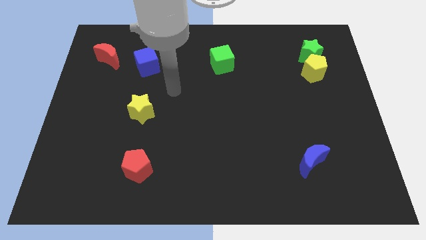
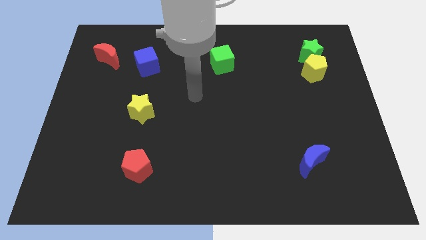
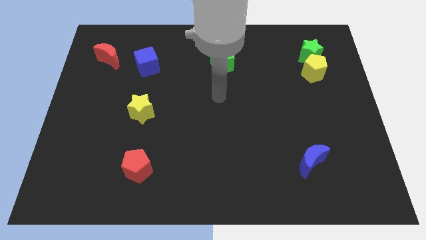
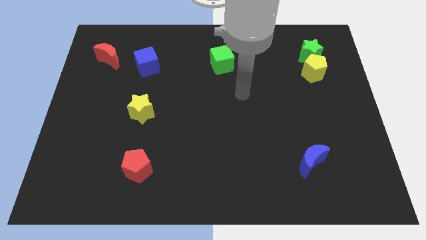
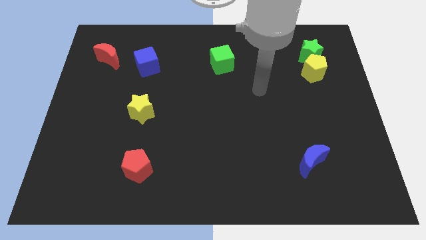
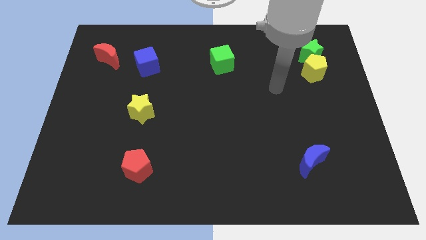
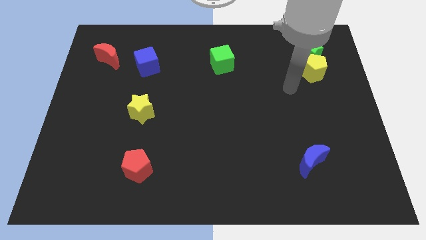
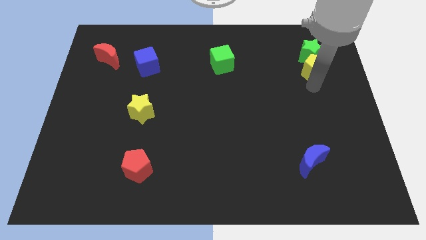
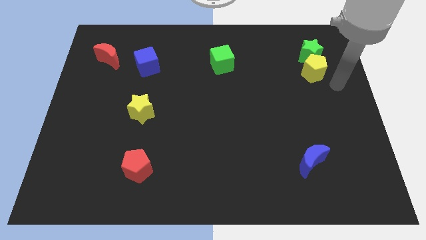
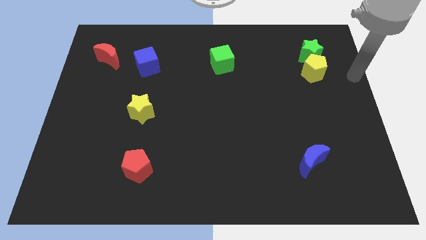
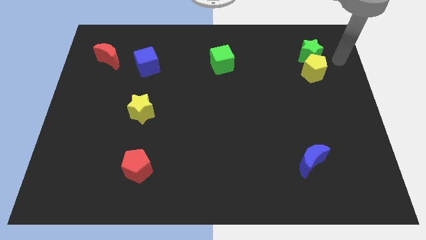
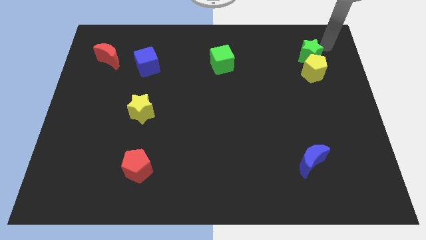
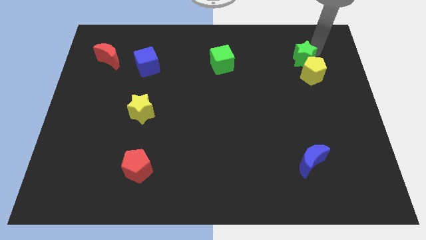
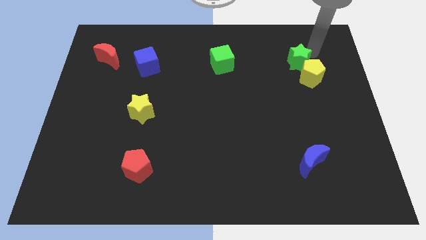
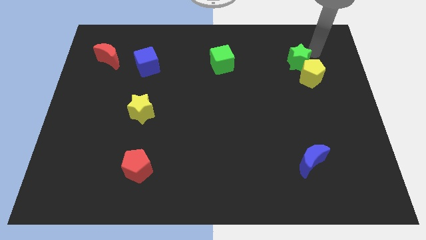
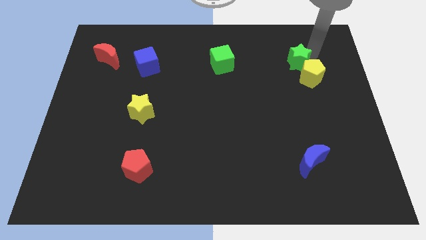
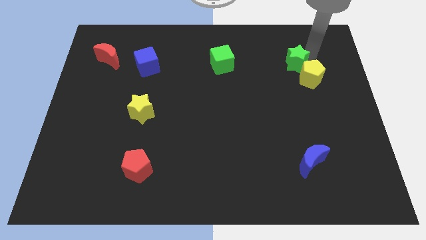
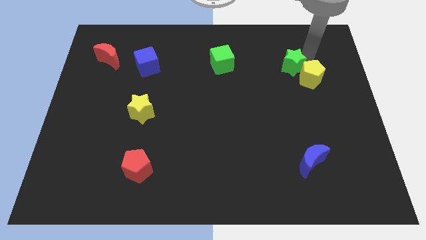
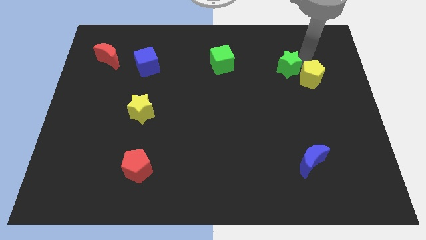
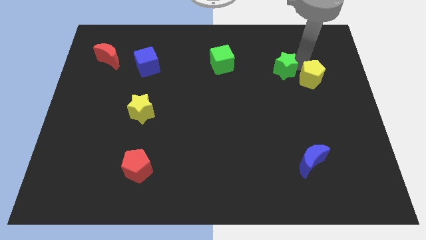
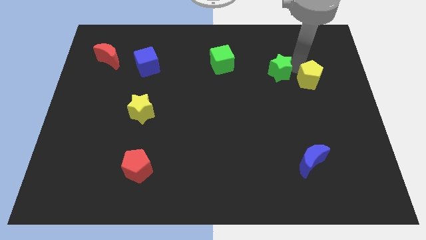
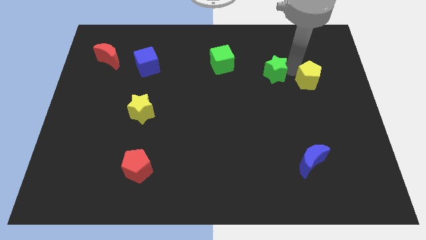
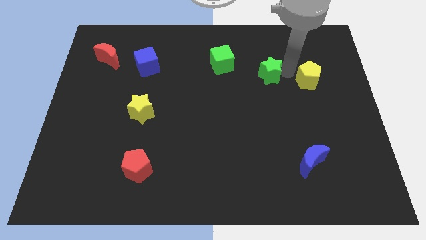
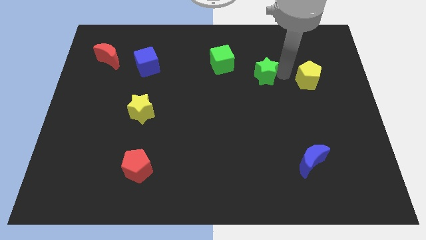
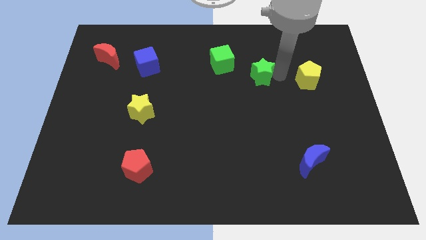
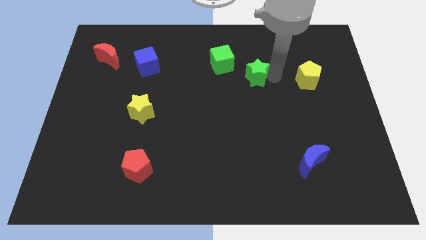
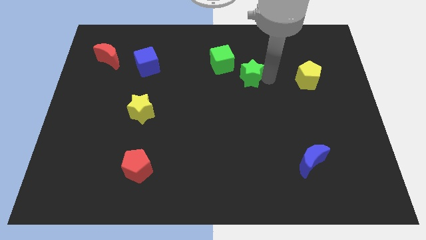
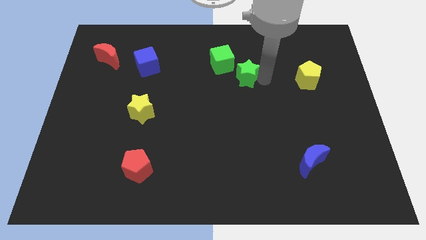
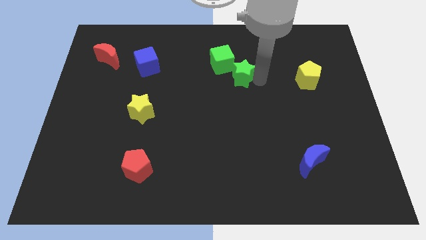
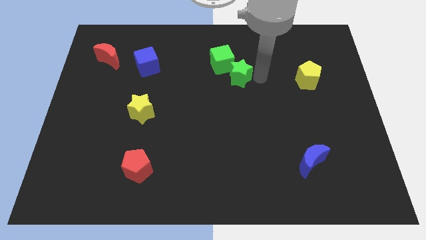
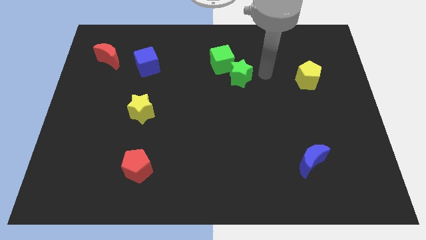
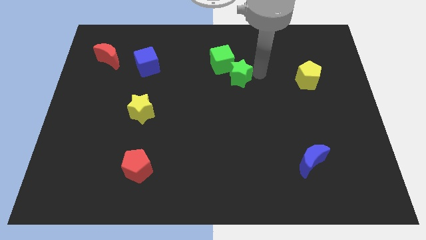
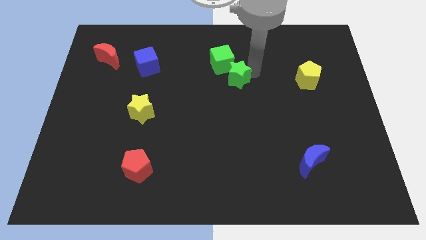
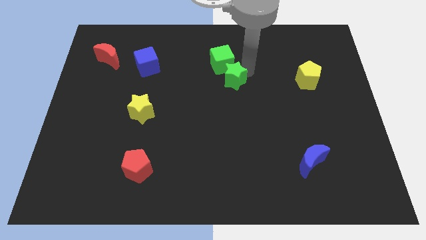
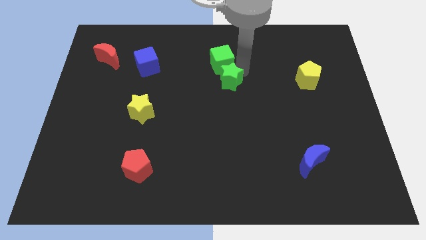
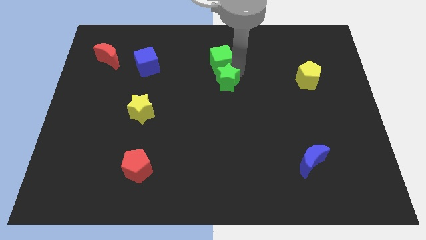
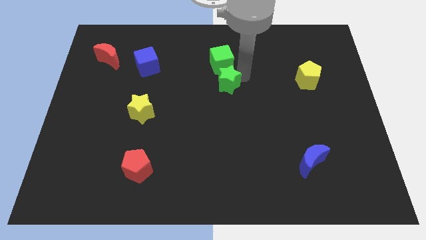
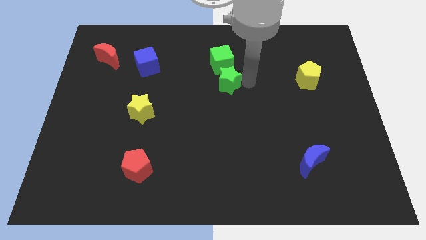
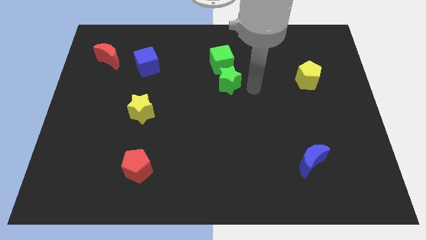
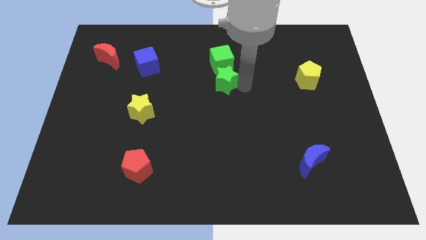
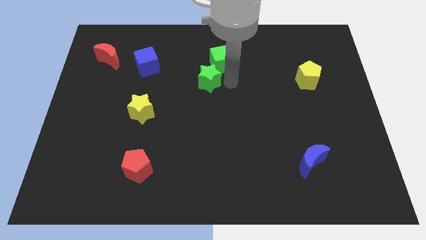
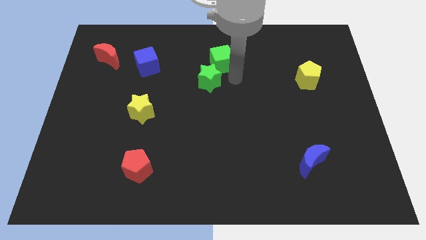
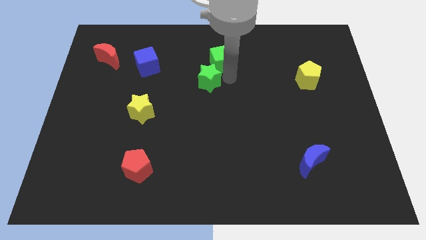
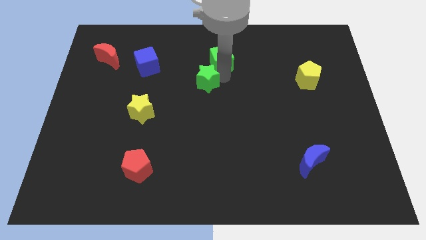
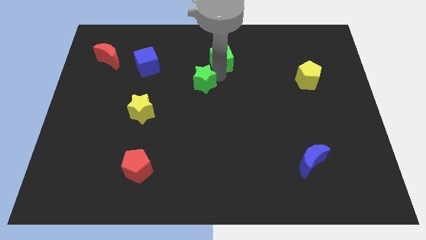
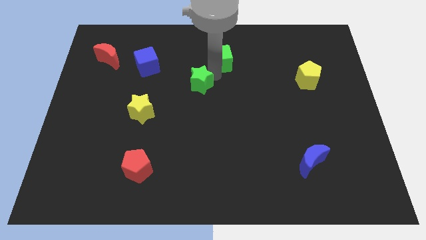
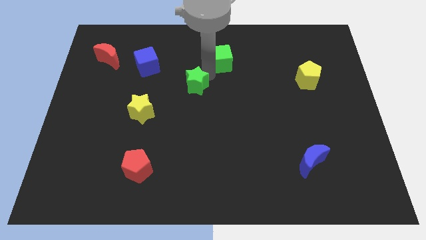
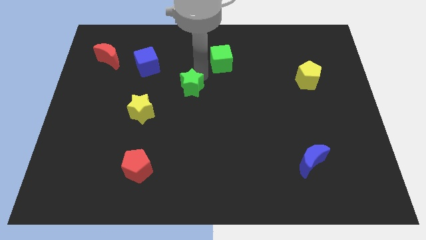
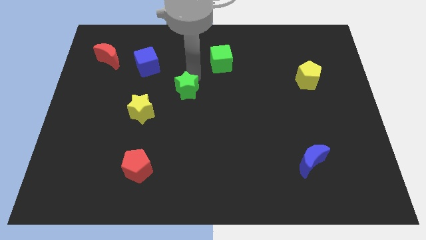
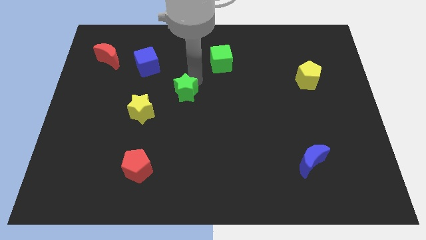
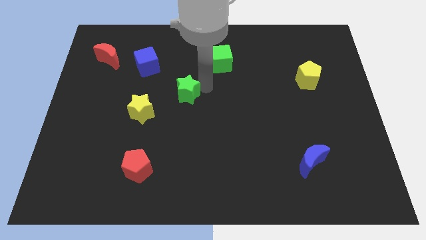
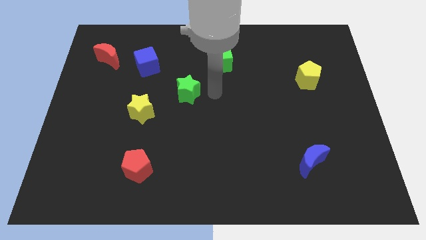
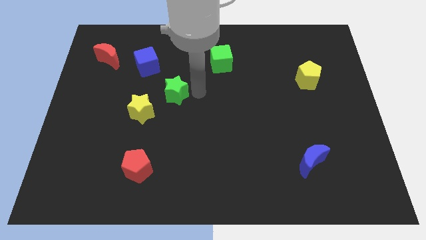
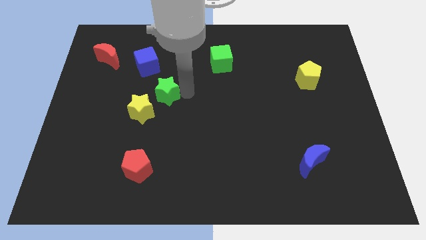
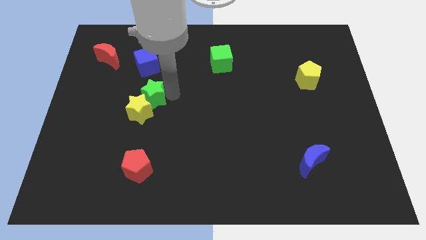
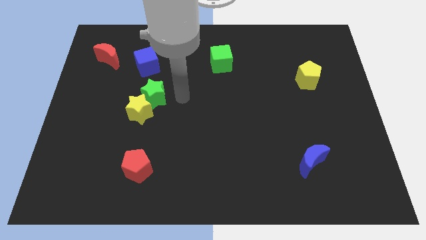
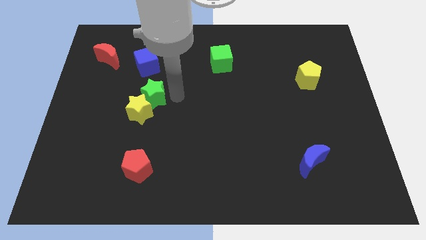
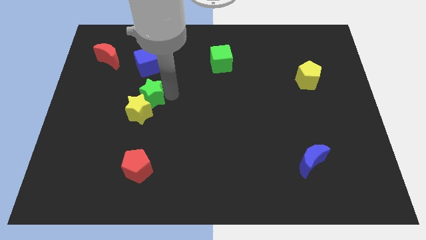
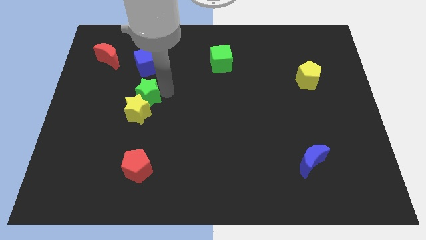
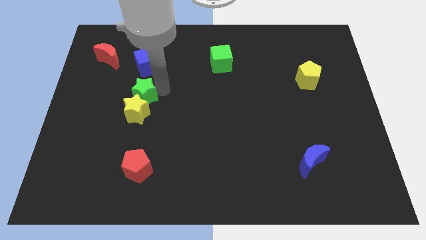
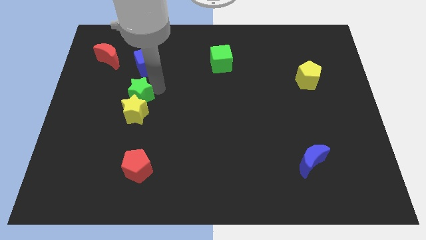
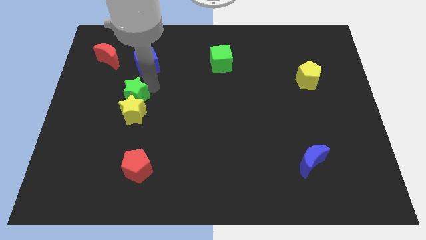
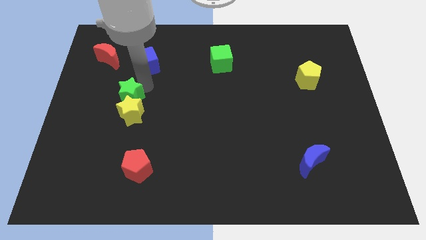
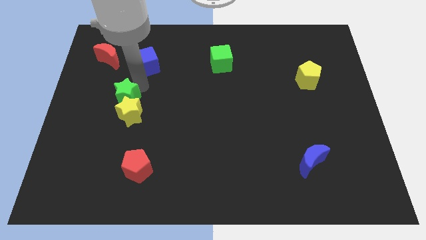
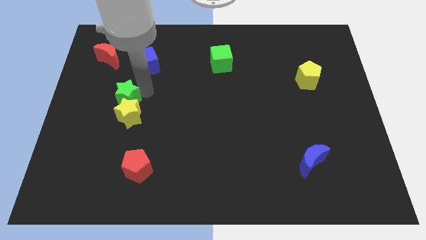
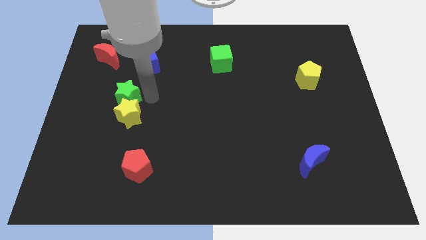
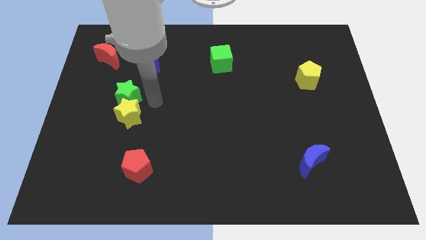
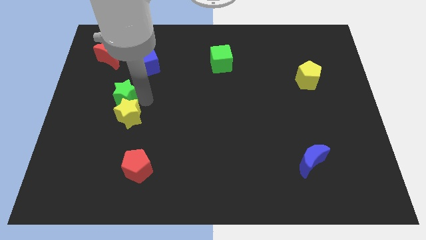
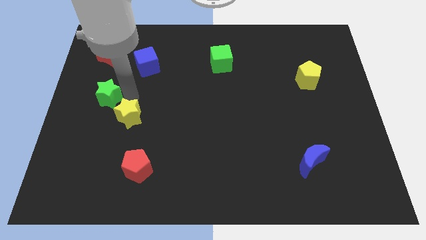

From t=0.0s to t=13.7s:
push the green star to the left side of the board
